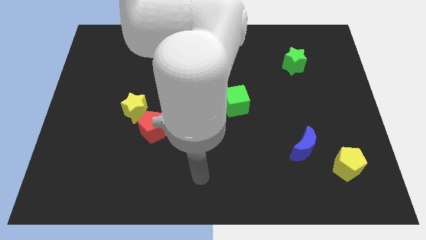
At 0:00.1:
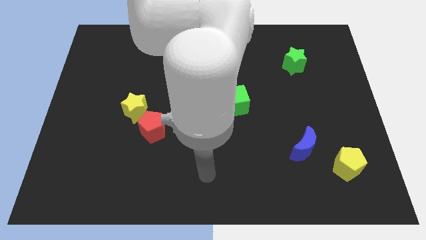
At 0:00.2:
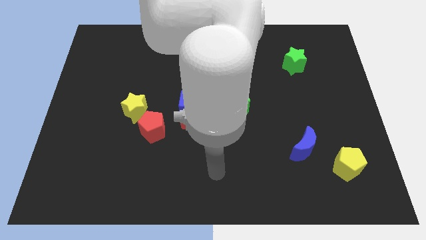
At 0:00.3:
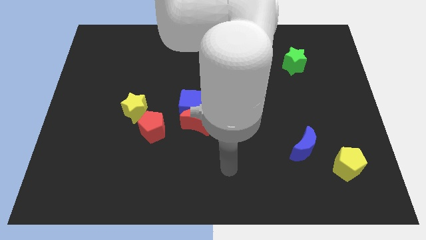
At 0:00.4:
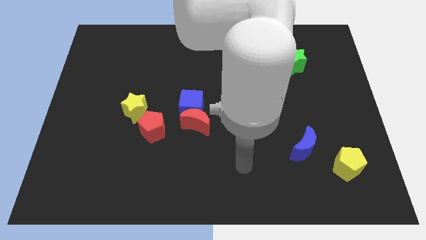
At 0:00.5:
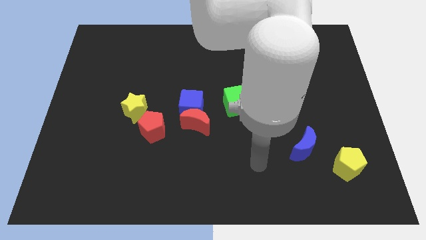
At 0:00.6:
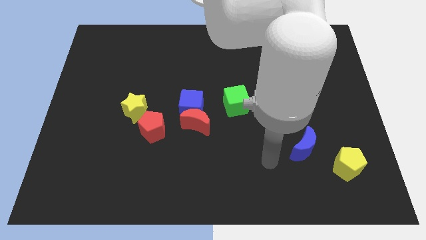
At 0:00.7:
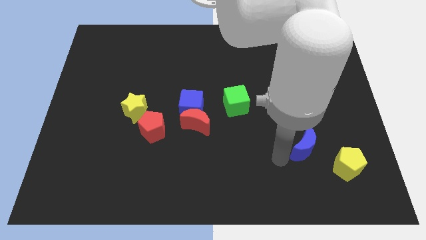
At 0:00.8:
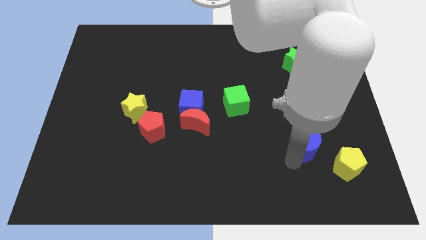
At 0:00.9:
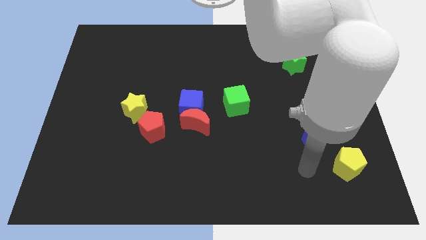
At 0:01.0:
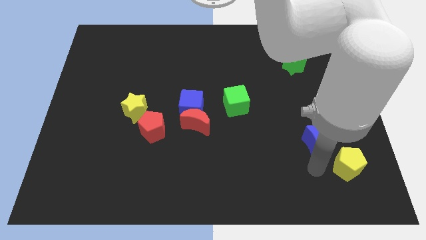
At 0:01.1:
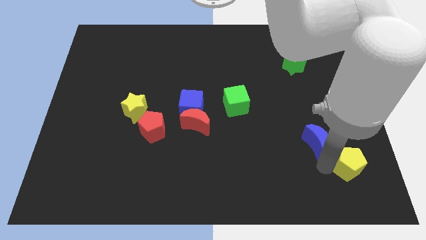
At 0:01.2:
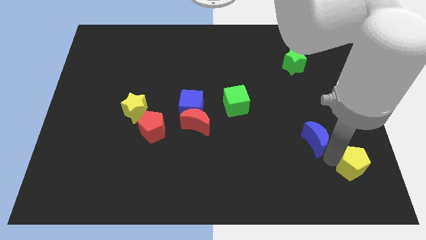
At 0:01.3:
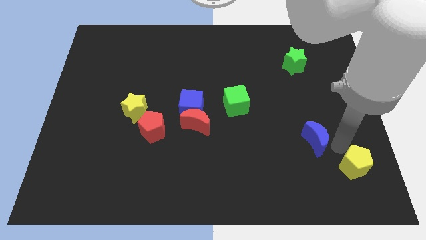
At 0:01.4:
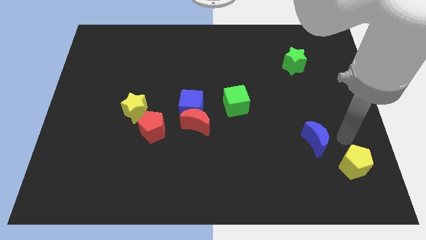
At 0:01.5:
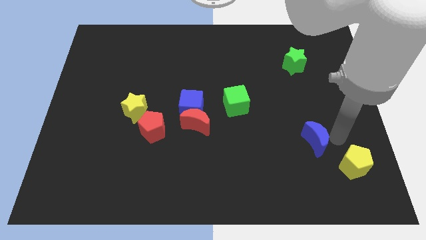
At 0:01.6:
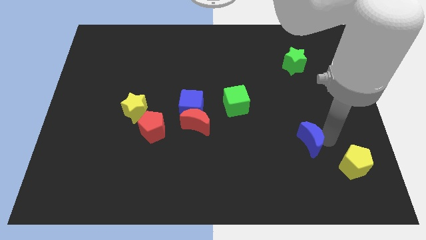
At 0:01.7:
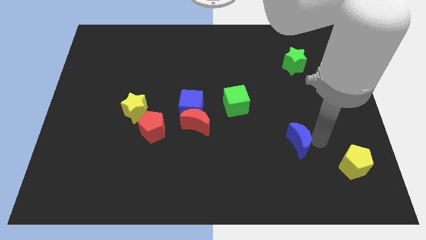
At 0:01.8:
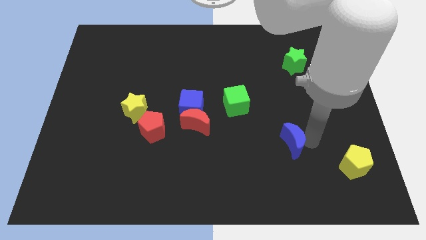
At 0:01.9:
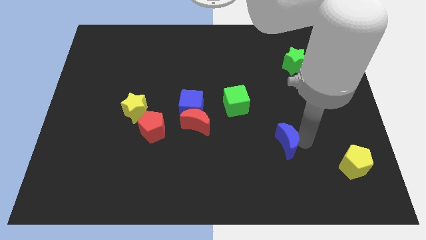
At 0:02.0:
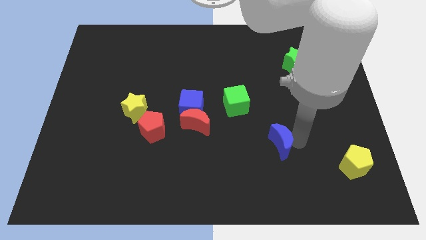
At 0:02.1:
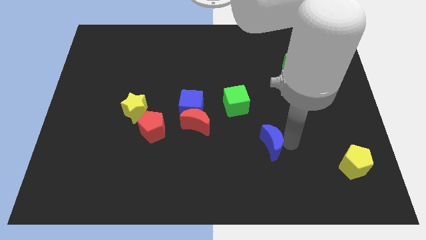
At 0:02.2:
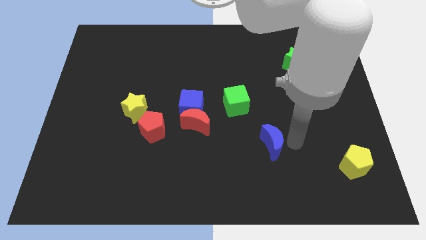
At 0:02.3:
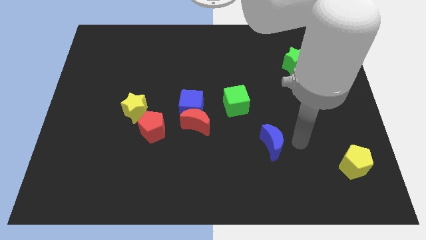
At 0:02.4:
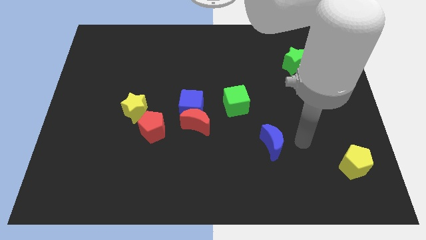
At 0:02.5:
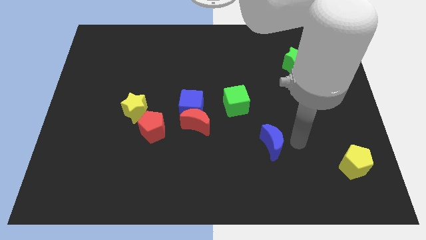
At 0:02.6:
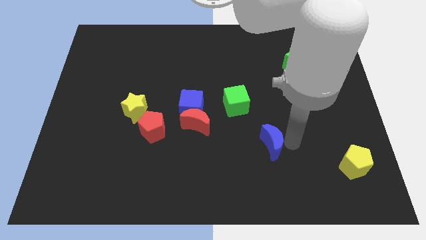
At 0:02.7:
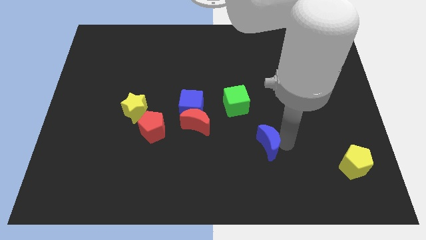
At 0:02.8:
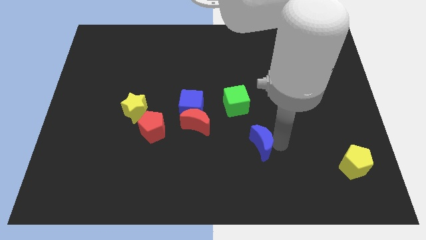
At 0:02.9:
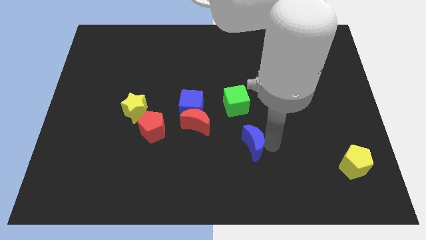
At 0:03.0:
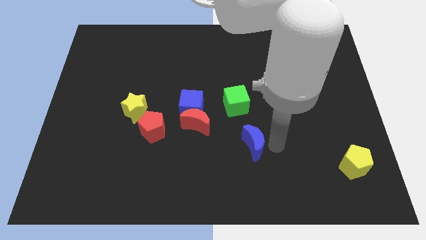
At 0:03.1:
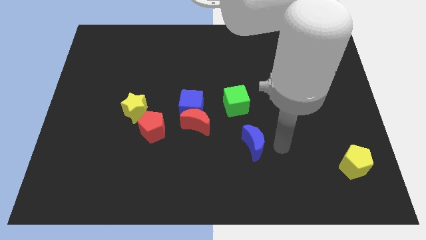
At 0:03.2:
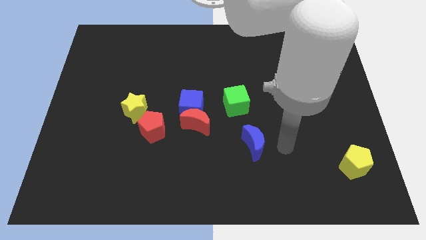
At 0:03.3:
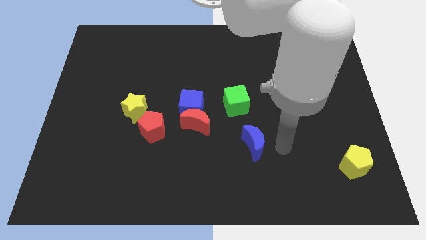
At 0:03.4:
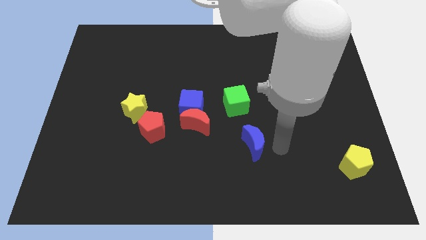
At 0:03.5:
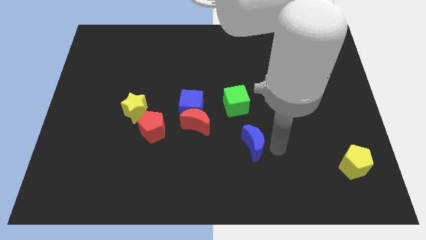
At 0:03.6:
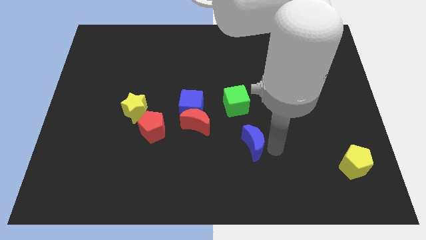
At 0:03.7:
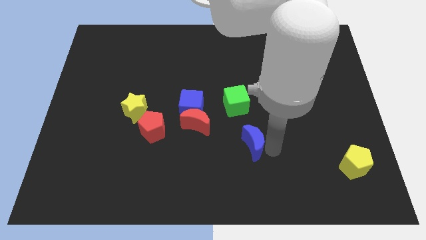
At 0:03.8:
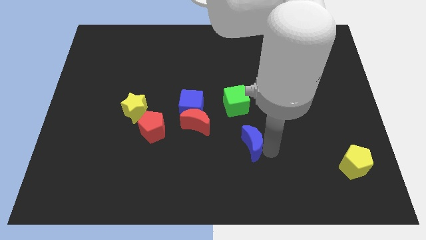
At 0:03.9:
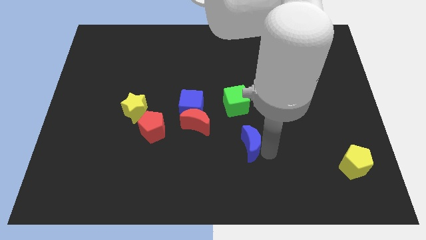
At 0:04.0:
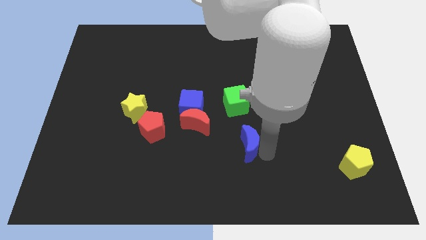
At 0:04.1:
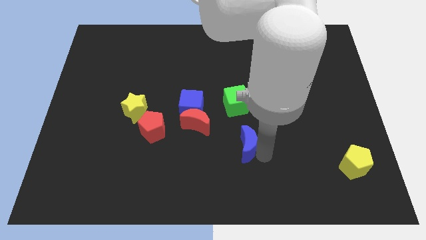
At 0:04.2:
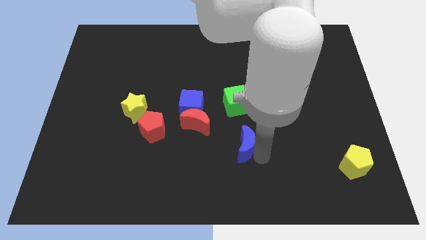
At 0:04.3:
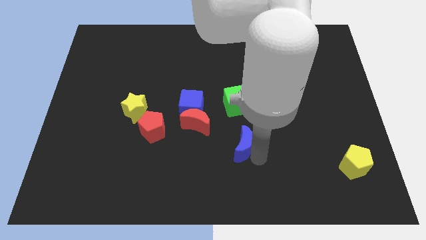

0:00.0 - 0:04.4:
put the blue moon to the bottom right of the red moon

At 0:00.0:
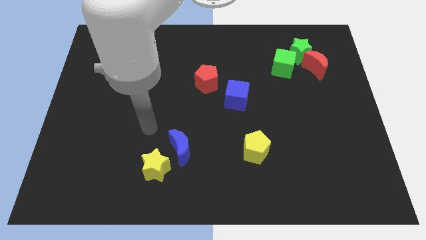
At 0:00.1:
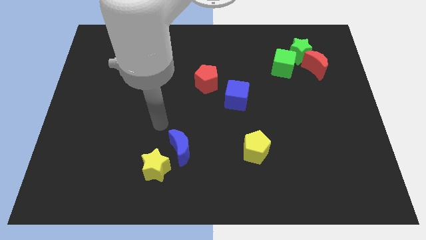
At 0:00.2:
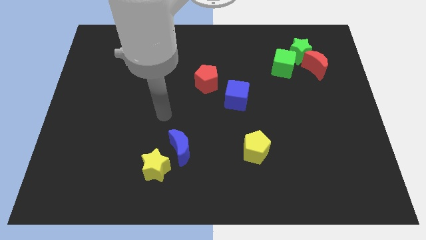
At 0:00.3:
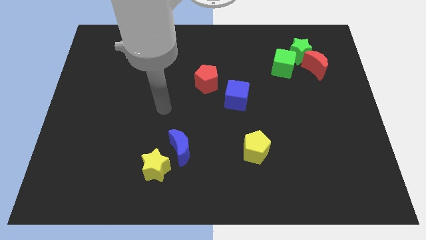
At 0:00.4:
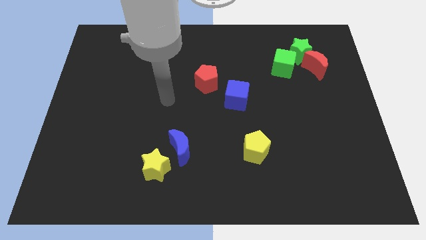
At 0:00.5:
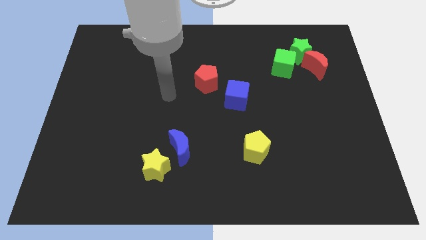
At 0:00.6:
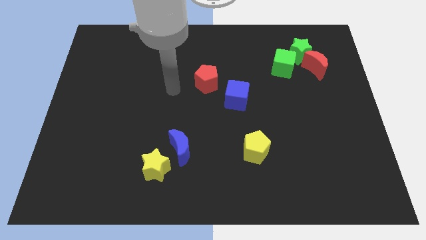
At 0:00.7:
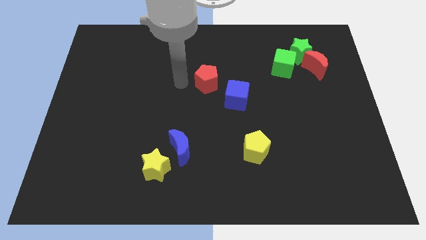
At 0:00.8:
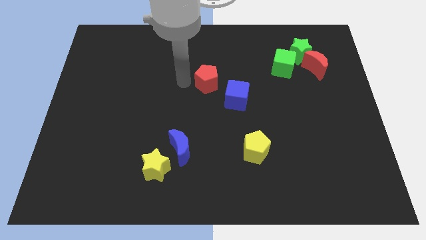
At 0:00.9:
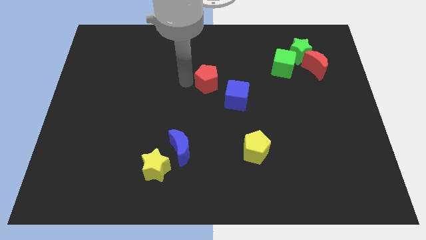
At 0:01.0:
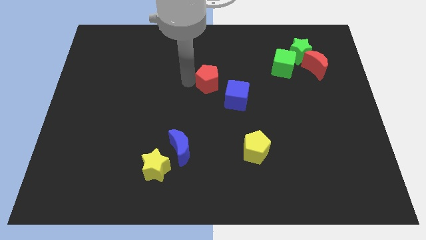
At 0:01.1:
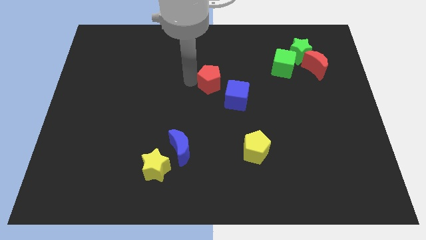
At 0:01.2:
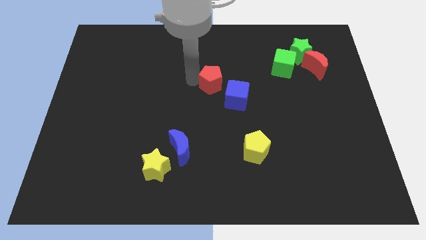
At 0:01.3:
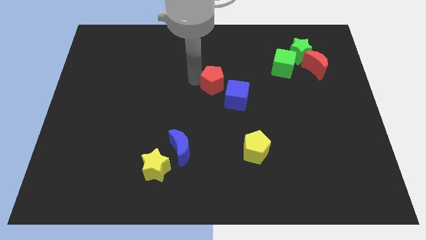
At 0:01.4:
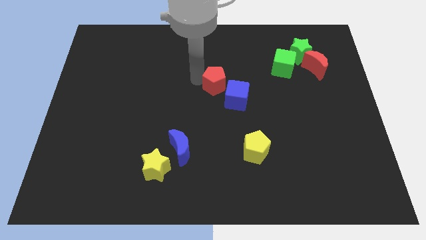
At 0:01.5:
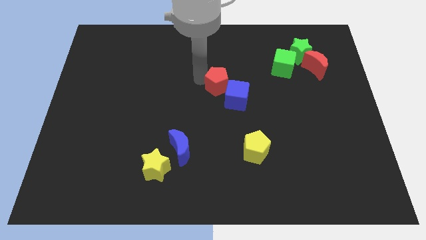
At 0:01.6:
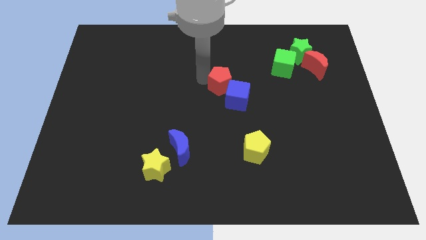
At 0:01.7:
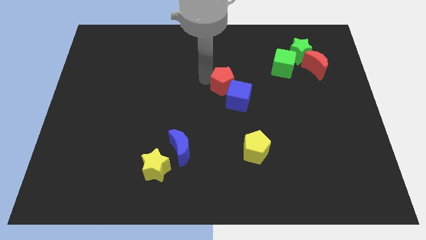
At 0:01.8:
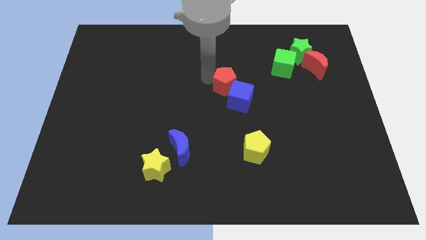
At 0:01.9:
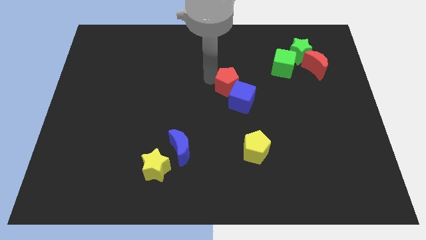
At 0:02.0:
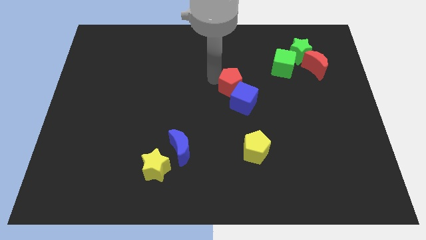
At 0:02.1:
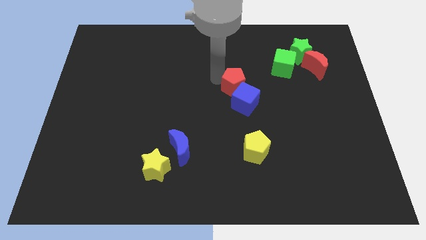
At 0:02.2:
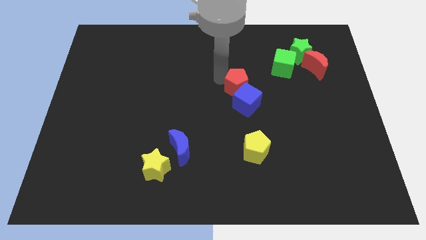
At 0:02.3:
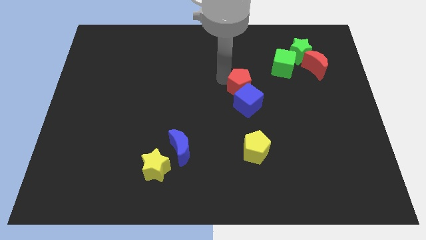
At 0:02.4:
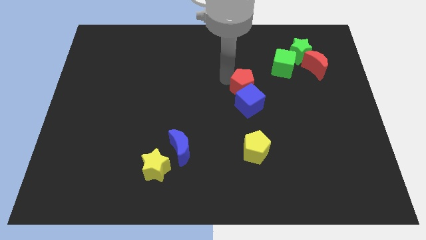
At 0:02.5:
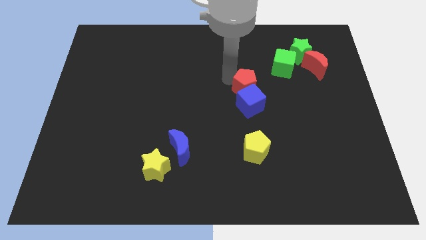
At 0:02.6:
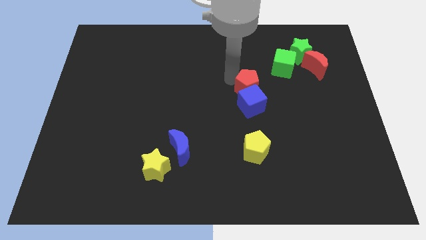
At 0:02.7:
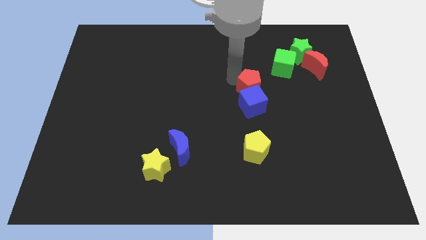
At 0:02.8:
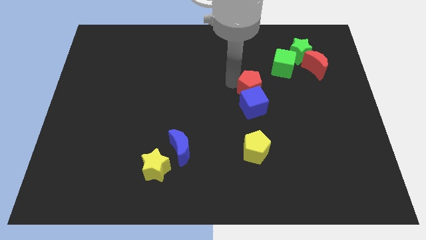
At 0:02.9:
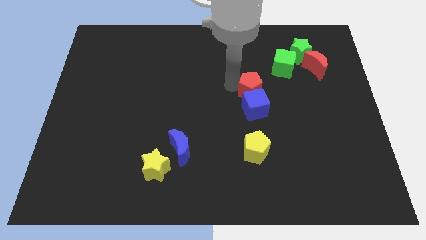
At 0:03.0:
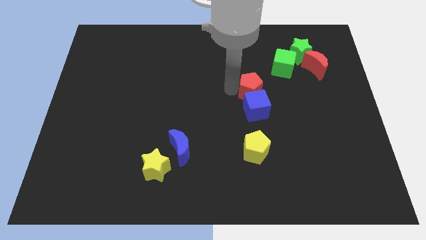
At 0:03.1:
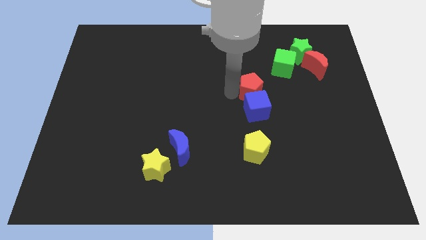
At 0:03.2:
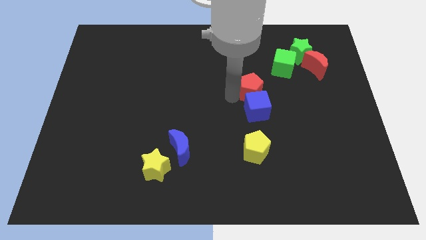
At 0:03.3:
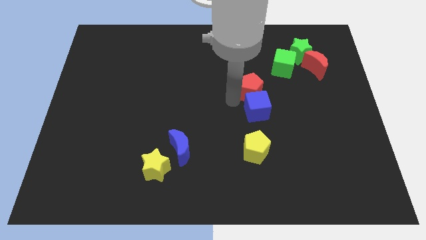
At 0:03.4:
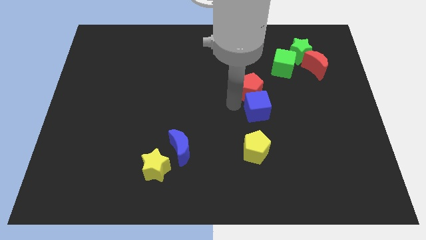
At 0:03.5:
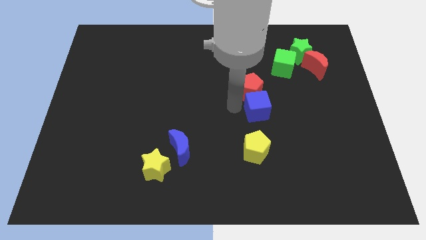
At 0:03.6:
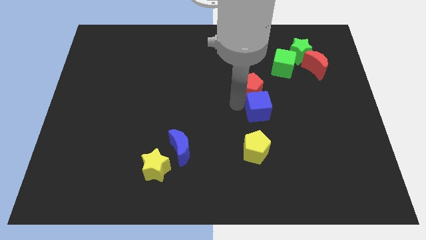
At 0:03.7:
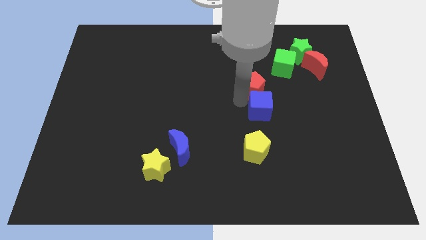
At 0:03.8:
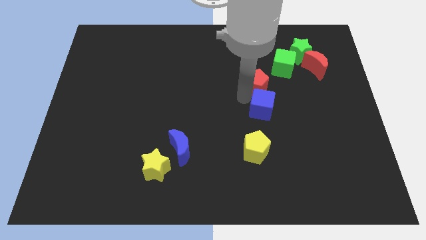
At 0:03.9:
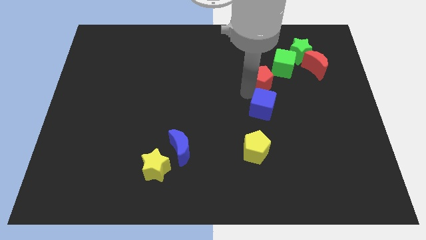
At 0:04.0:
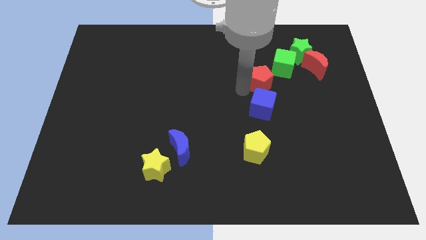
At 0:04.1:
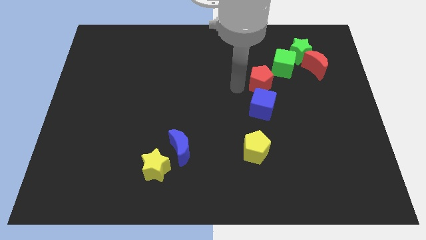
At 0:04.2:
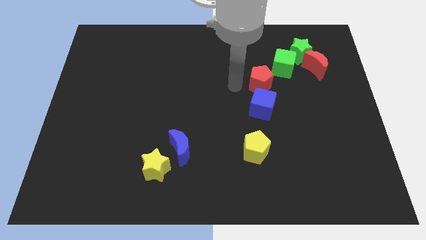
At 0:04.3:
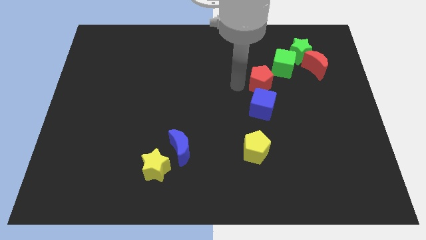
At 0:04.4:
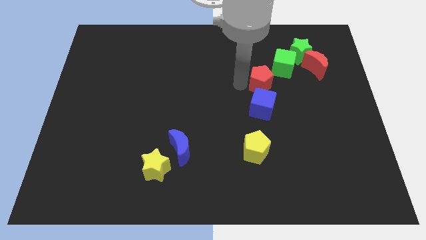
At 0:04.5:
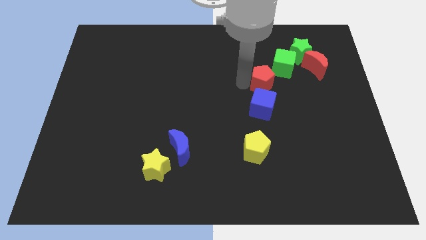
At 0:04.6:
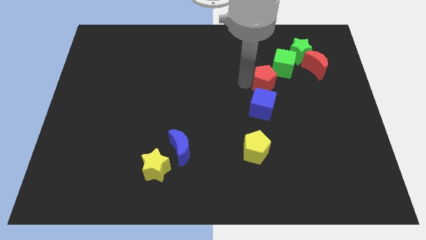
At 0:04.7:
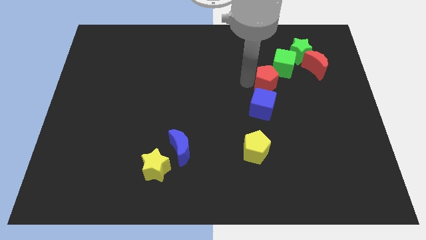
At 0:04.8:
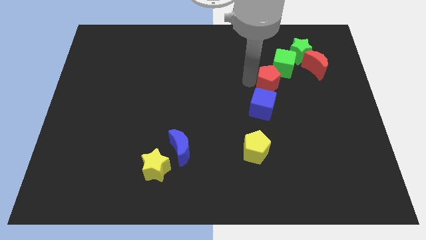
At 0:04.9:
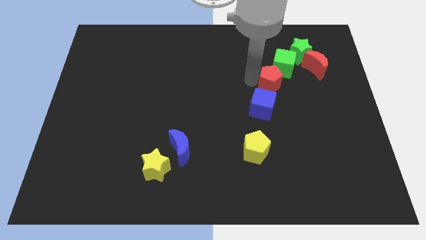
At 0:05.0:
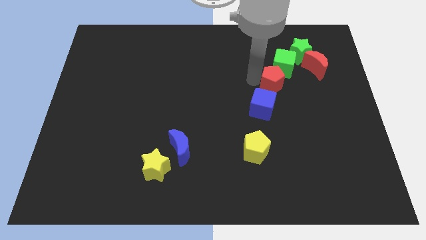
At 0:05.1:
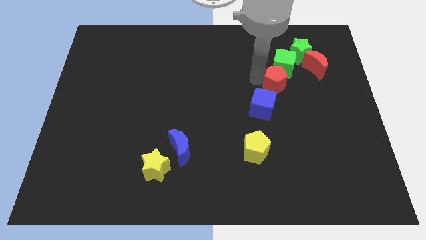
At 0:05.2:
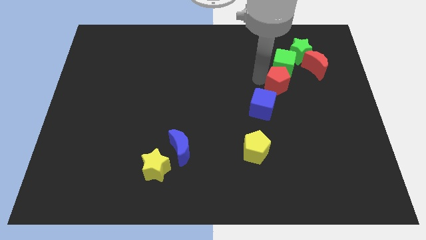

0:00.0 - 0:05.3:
slide the red pentagon diagonally down and to the left of the red moon
